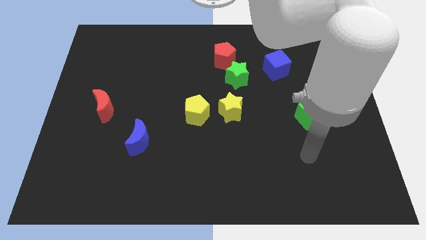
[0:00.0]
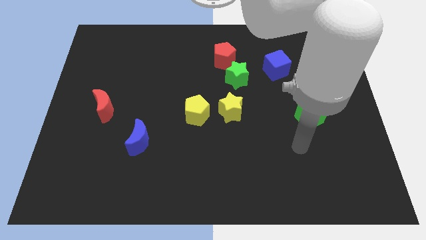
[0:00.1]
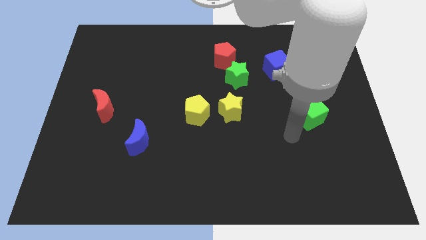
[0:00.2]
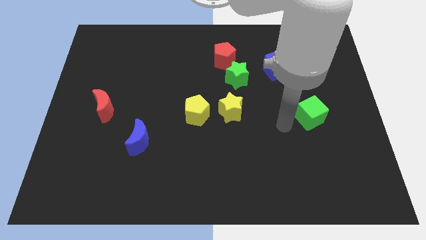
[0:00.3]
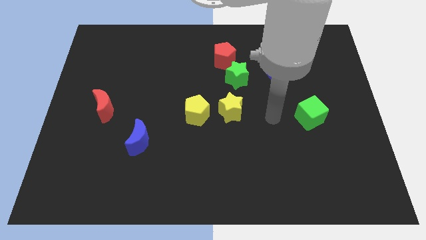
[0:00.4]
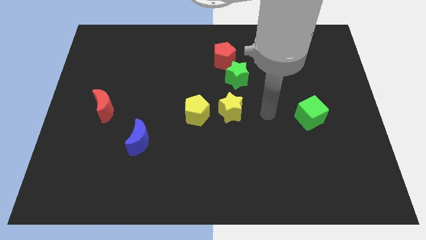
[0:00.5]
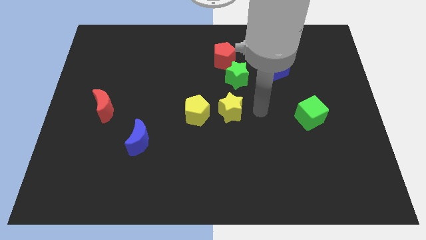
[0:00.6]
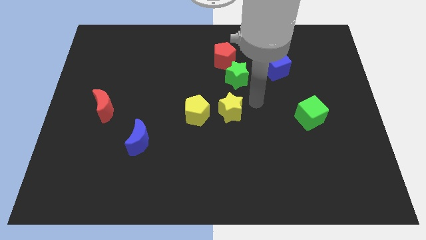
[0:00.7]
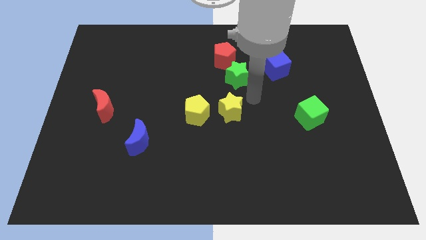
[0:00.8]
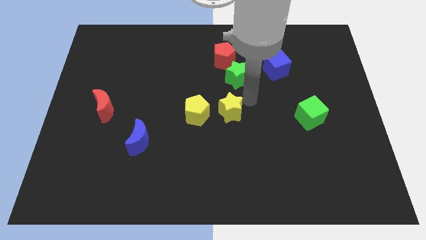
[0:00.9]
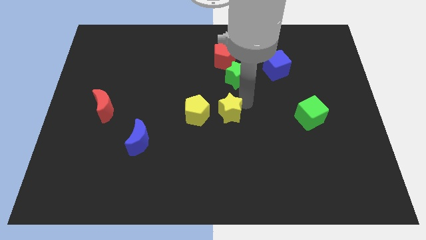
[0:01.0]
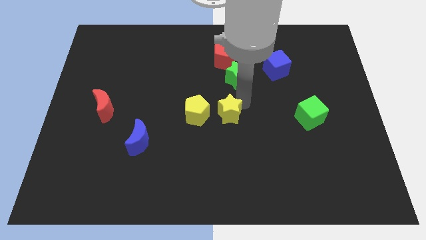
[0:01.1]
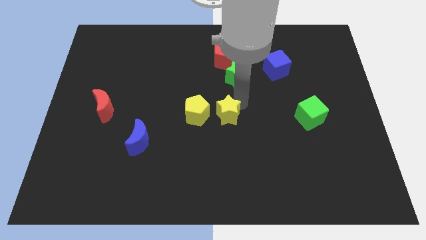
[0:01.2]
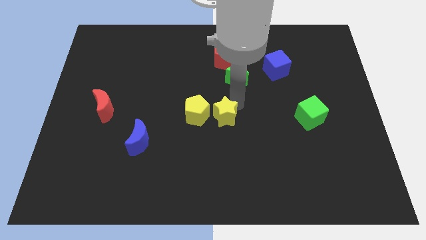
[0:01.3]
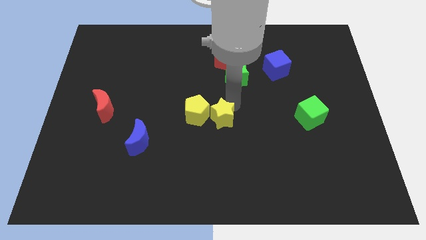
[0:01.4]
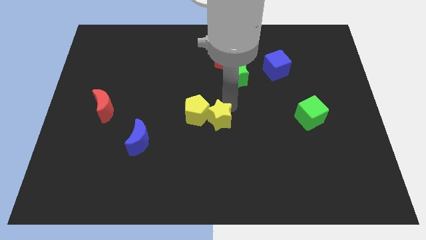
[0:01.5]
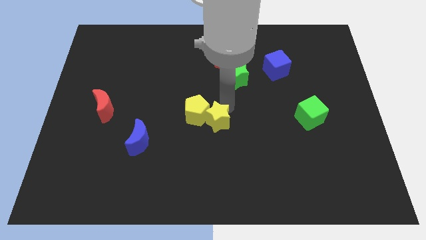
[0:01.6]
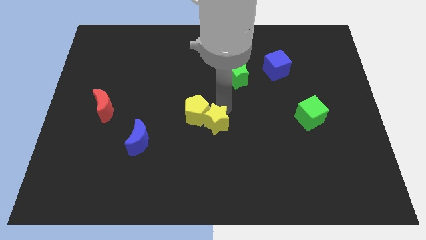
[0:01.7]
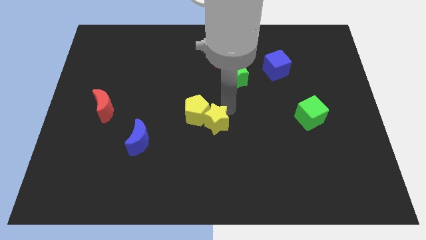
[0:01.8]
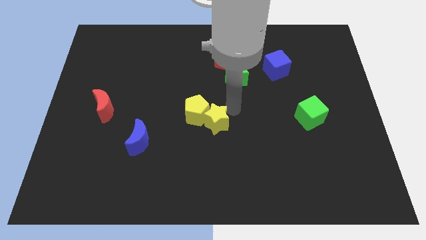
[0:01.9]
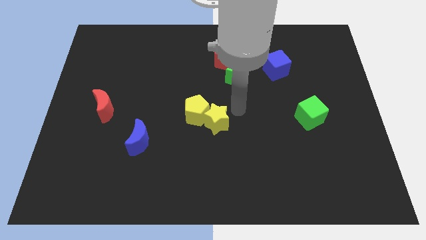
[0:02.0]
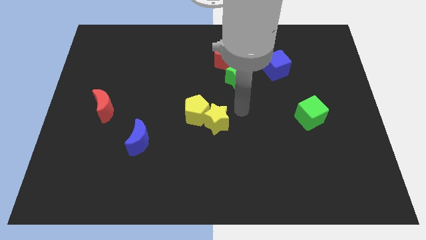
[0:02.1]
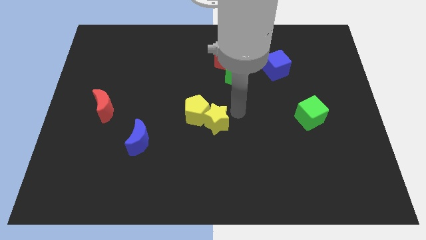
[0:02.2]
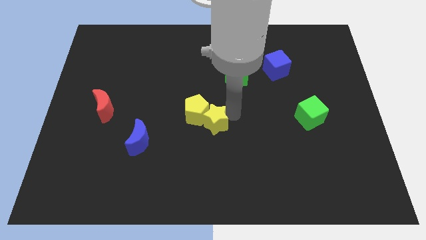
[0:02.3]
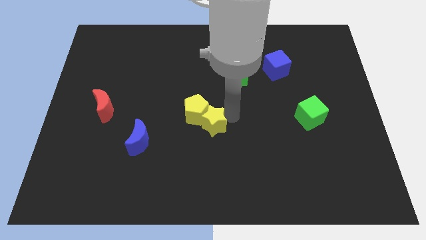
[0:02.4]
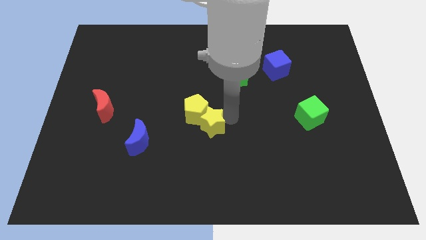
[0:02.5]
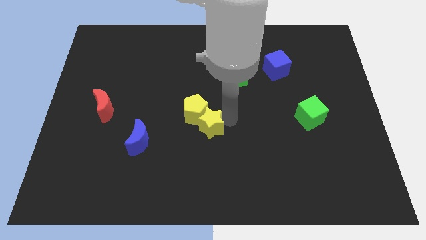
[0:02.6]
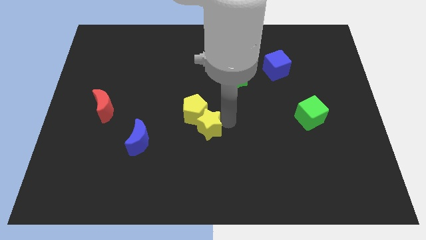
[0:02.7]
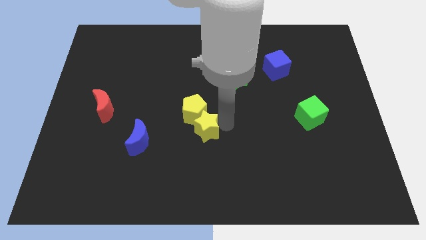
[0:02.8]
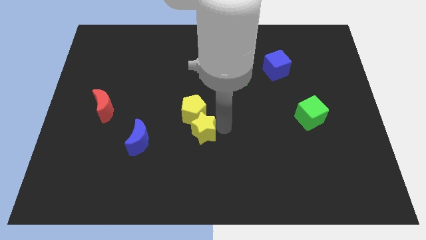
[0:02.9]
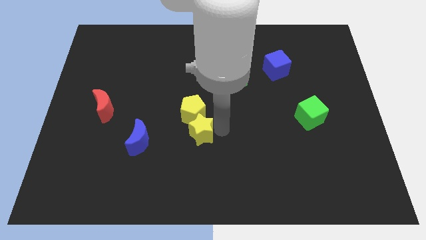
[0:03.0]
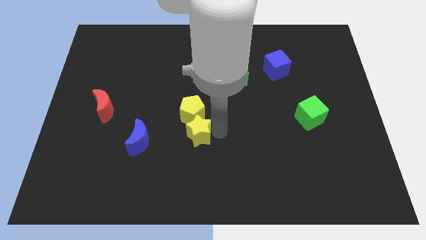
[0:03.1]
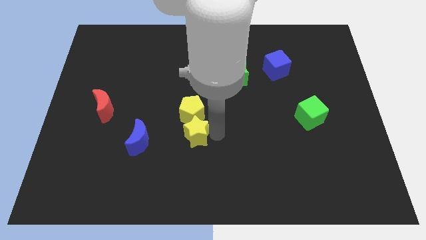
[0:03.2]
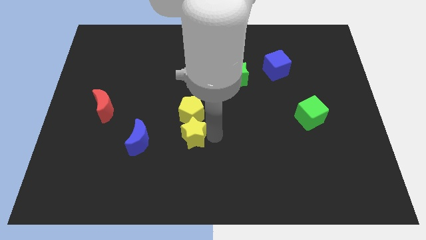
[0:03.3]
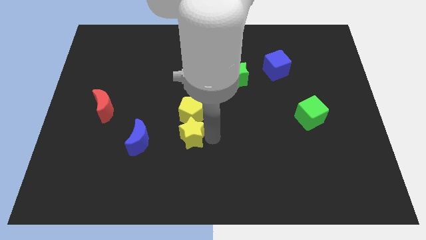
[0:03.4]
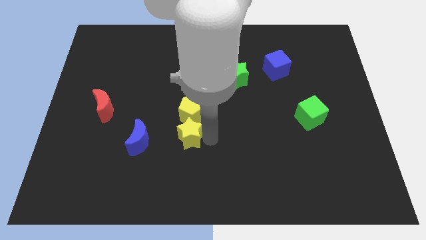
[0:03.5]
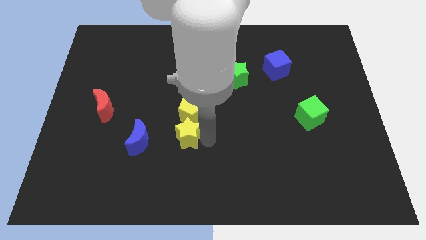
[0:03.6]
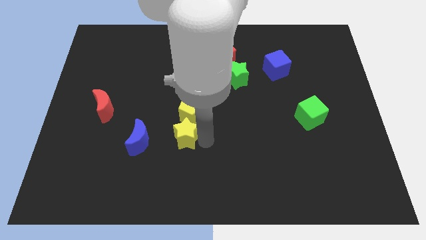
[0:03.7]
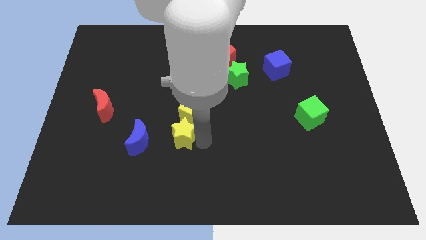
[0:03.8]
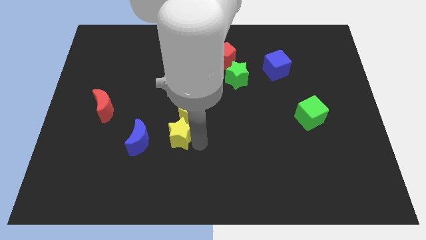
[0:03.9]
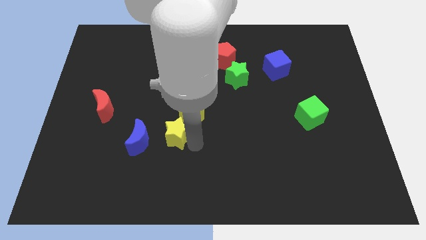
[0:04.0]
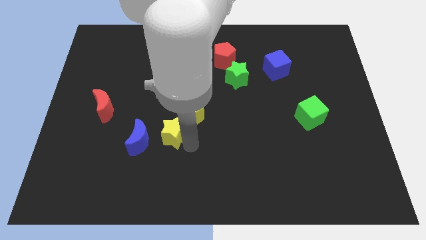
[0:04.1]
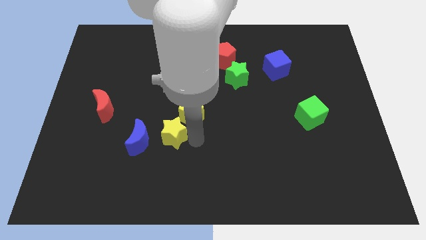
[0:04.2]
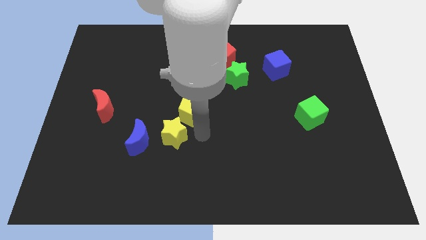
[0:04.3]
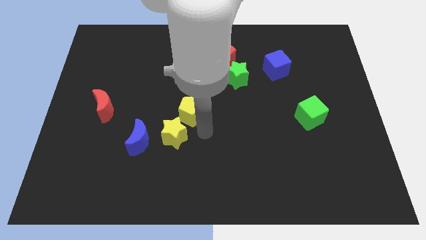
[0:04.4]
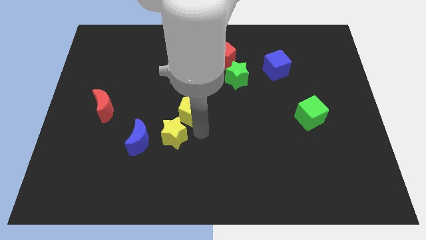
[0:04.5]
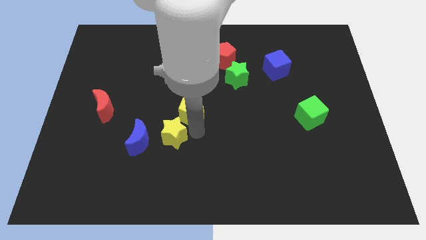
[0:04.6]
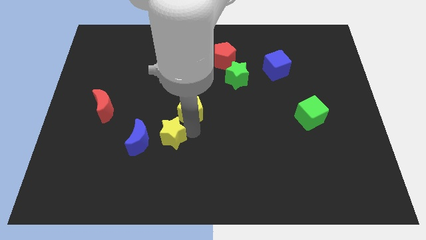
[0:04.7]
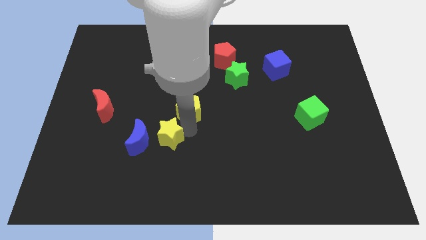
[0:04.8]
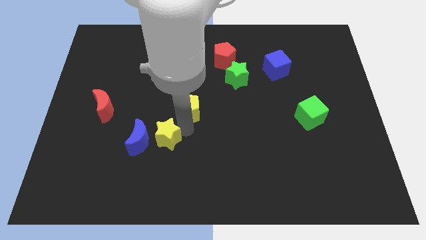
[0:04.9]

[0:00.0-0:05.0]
slide the yellow star next to the blue moon

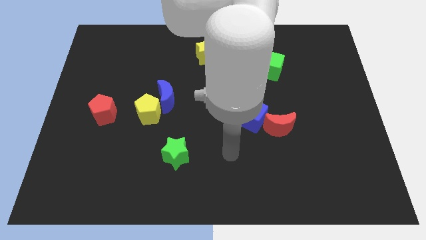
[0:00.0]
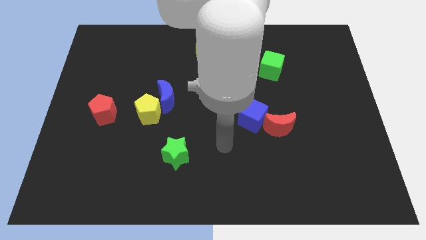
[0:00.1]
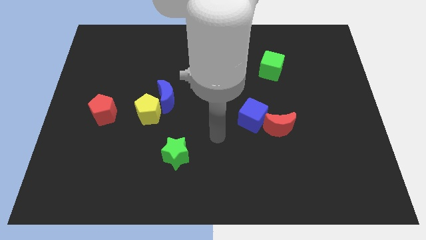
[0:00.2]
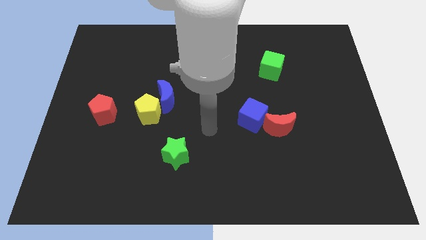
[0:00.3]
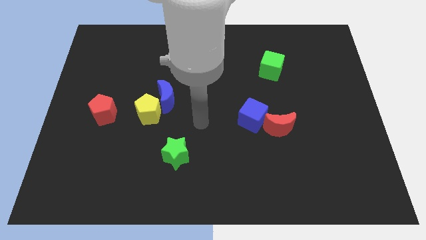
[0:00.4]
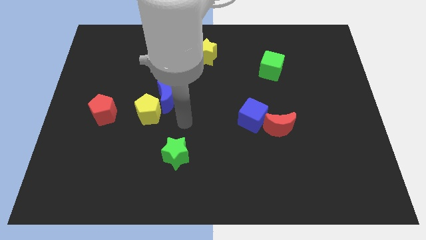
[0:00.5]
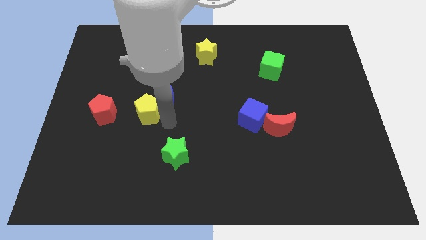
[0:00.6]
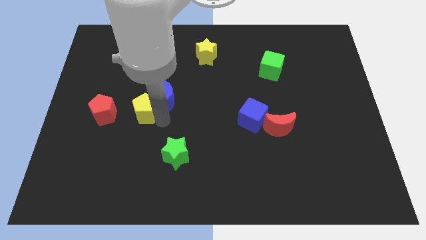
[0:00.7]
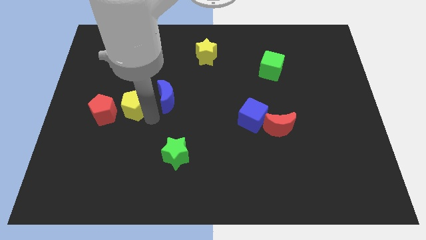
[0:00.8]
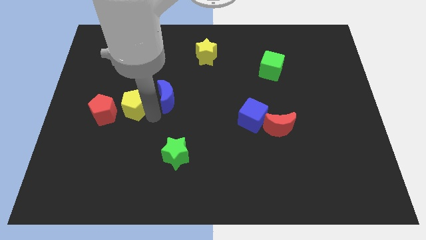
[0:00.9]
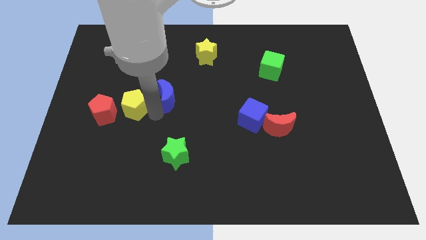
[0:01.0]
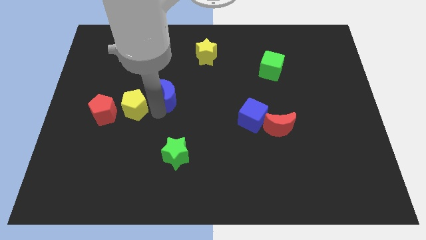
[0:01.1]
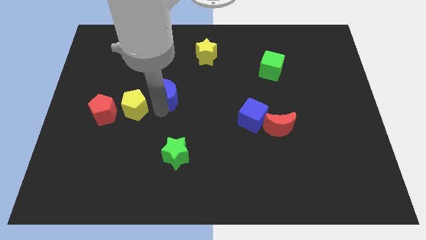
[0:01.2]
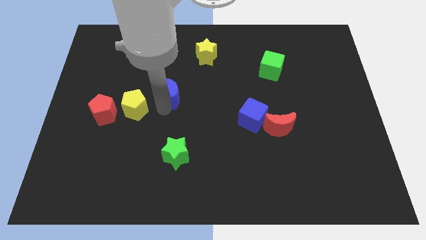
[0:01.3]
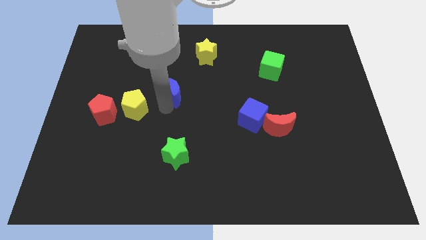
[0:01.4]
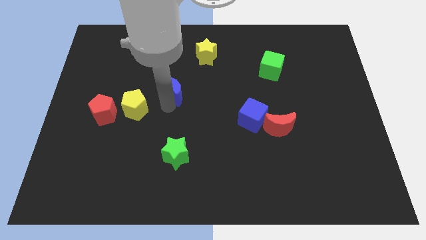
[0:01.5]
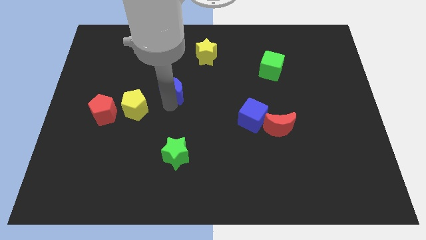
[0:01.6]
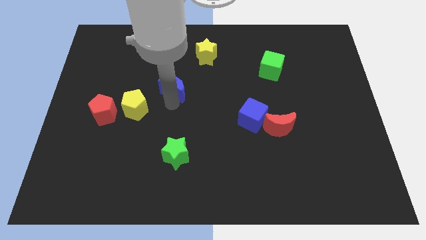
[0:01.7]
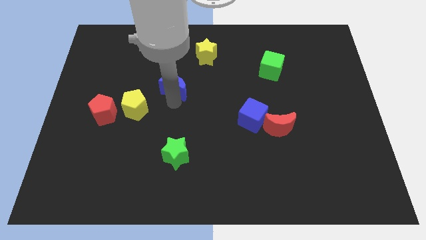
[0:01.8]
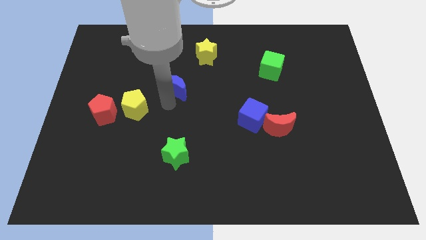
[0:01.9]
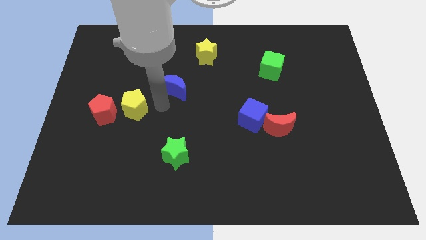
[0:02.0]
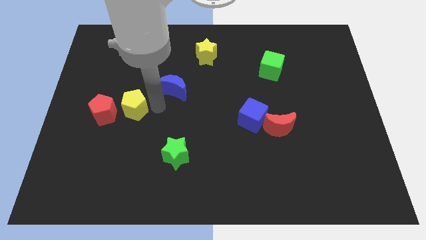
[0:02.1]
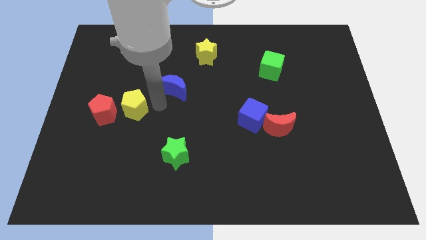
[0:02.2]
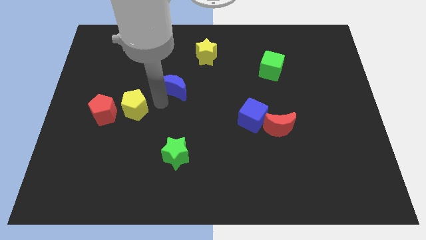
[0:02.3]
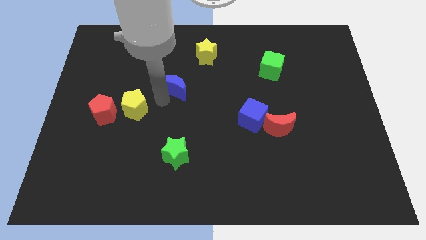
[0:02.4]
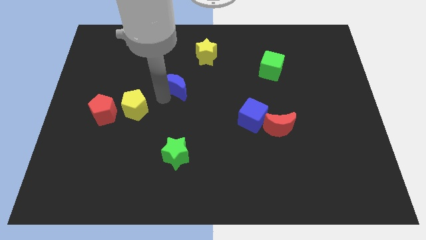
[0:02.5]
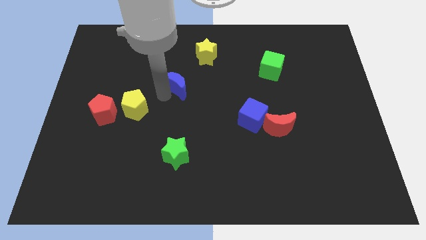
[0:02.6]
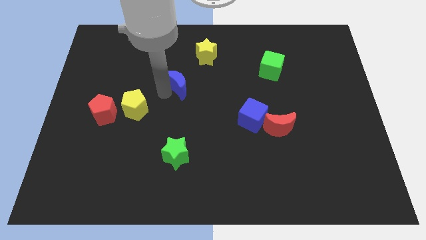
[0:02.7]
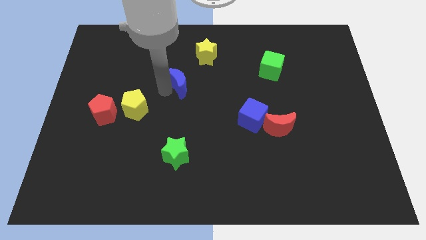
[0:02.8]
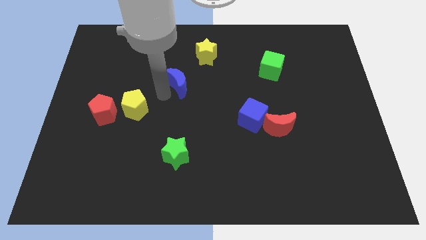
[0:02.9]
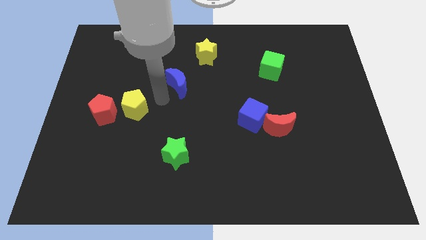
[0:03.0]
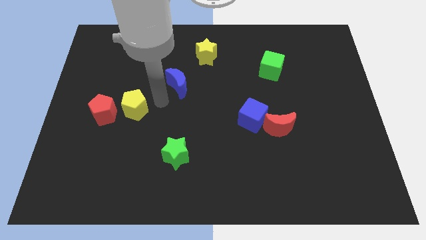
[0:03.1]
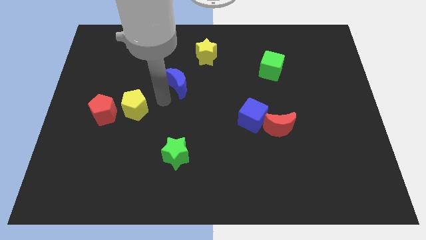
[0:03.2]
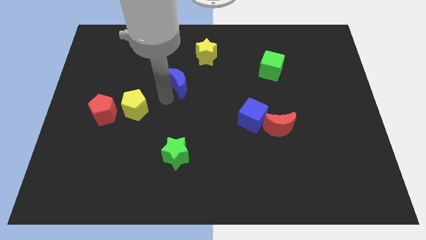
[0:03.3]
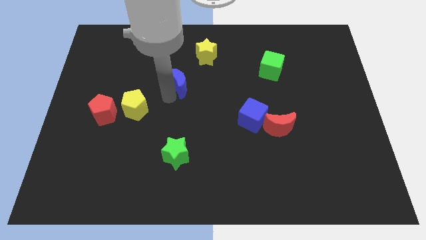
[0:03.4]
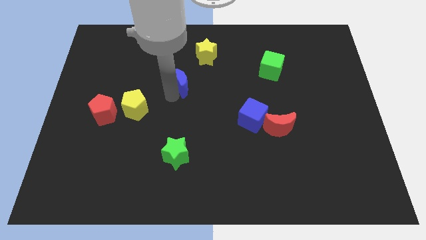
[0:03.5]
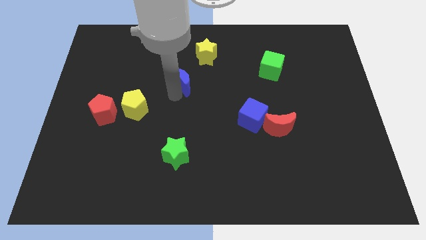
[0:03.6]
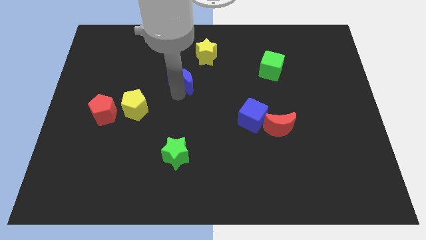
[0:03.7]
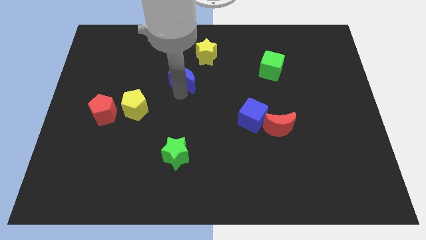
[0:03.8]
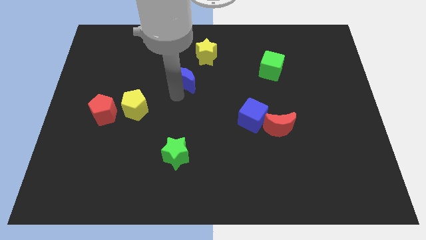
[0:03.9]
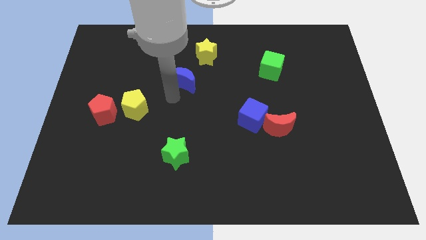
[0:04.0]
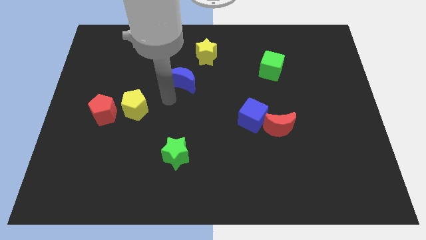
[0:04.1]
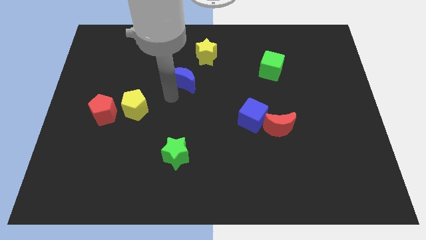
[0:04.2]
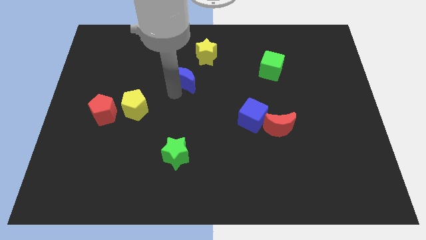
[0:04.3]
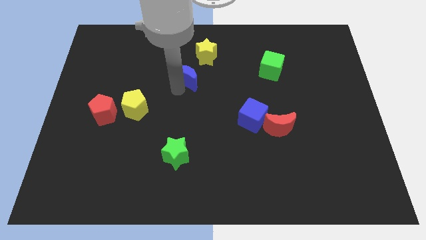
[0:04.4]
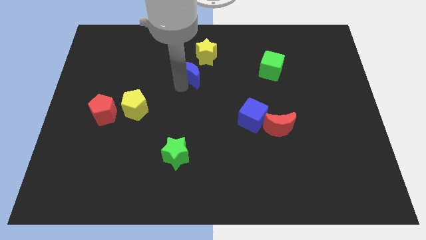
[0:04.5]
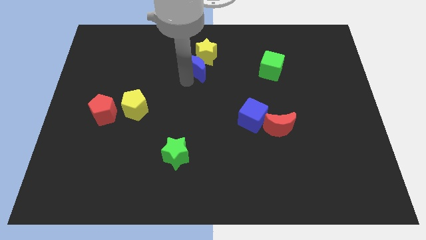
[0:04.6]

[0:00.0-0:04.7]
slide the blue moon to the yellow star
